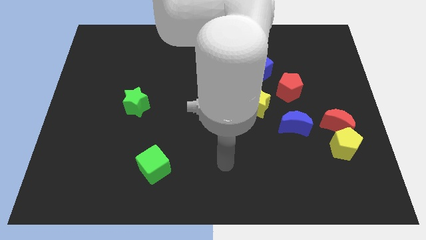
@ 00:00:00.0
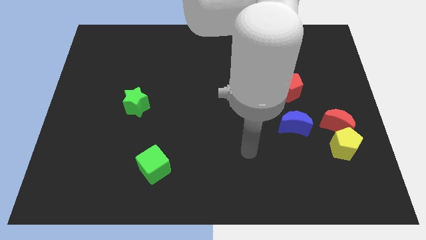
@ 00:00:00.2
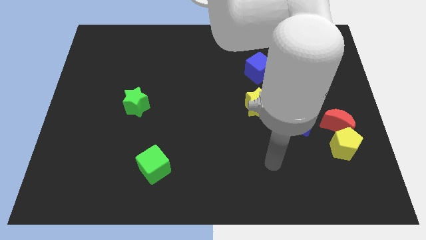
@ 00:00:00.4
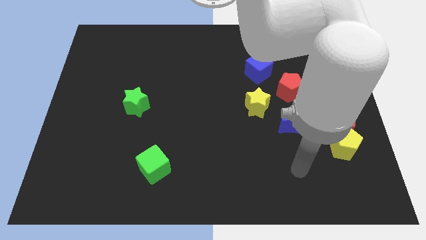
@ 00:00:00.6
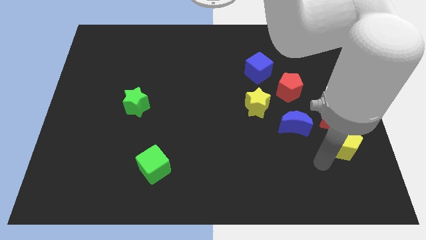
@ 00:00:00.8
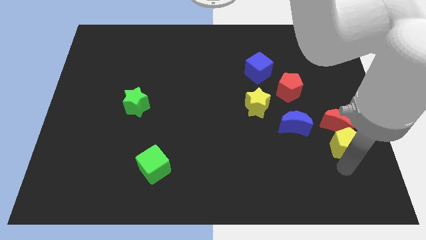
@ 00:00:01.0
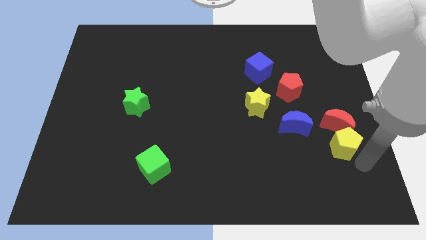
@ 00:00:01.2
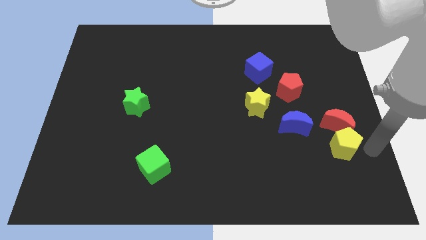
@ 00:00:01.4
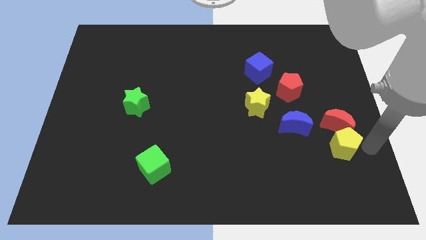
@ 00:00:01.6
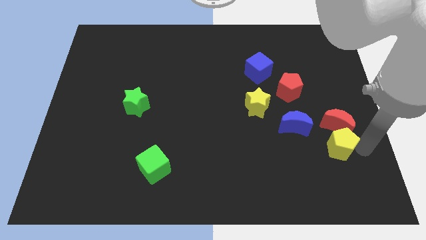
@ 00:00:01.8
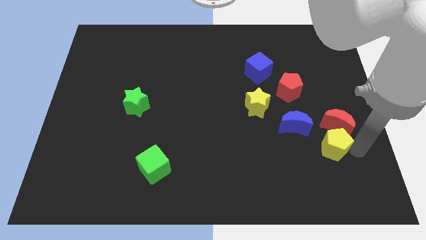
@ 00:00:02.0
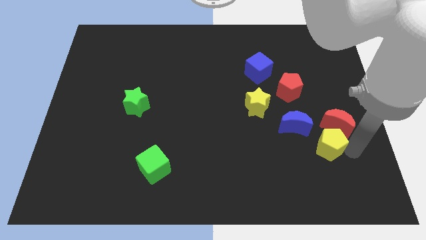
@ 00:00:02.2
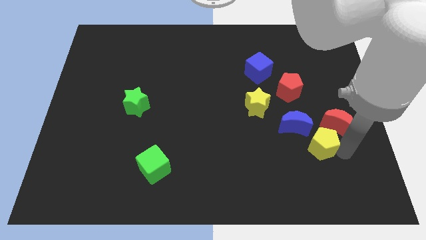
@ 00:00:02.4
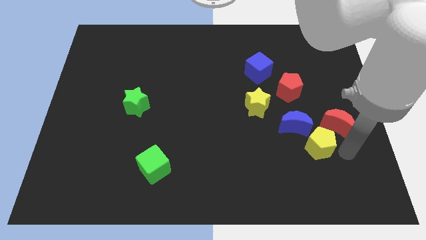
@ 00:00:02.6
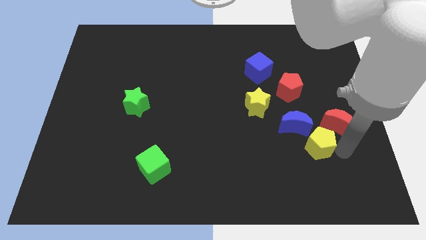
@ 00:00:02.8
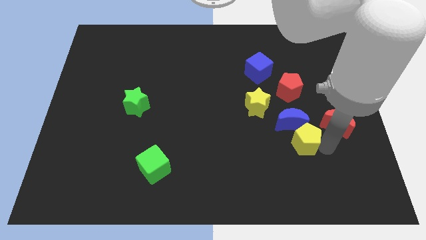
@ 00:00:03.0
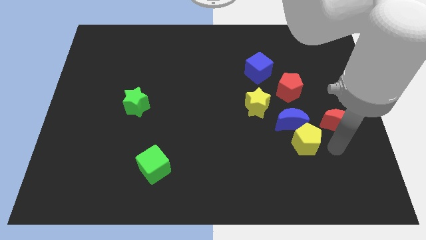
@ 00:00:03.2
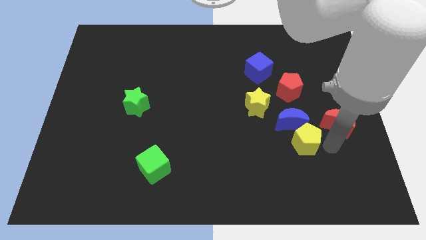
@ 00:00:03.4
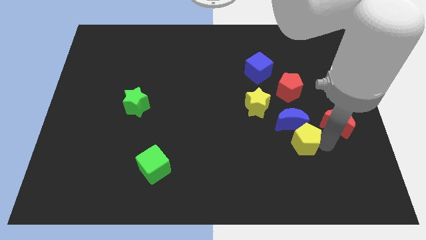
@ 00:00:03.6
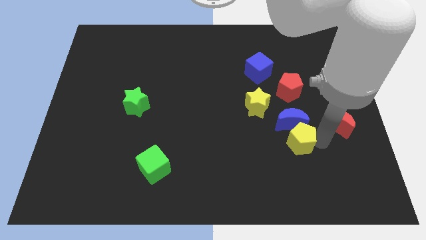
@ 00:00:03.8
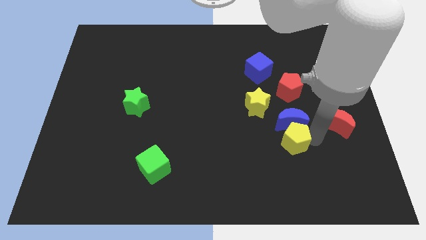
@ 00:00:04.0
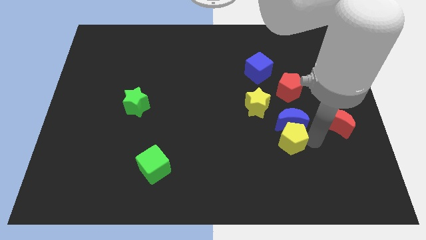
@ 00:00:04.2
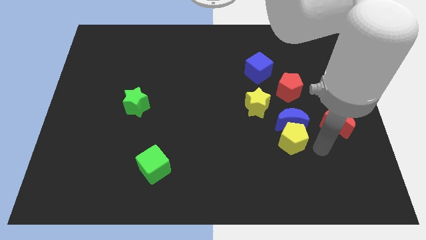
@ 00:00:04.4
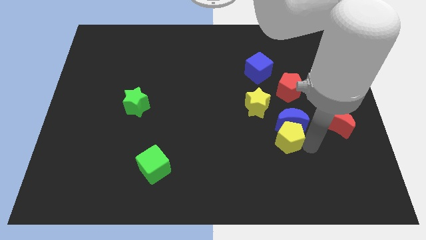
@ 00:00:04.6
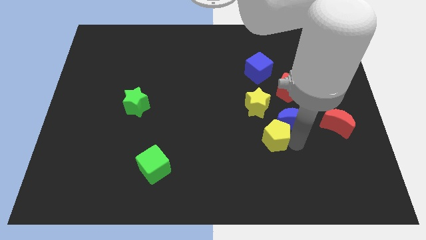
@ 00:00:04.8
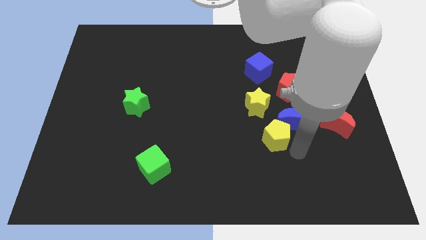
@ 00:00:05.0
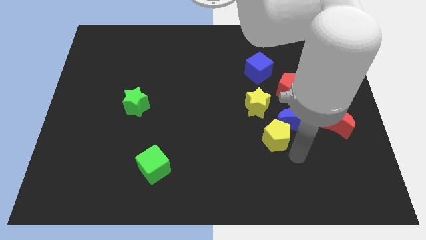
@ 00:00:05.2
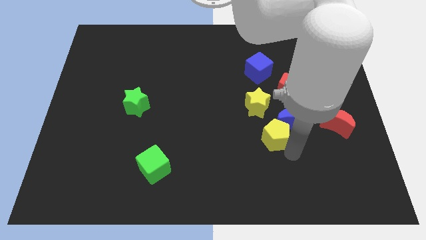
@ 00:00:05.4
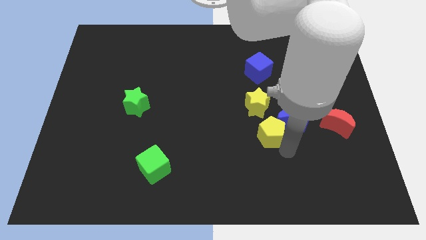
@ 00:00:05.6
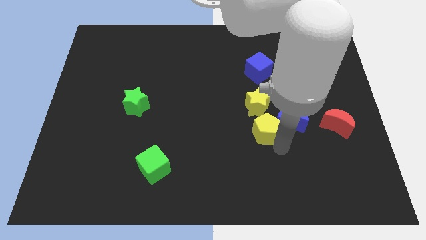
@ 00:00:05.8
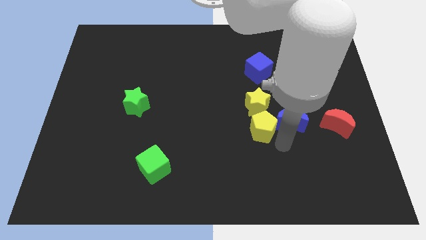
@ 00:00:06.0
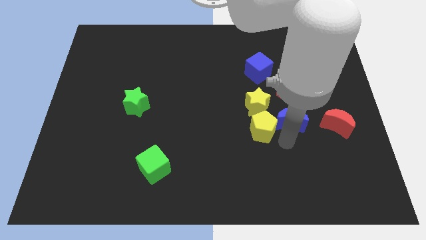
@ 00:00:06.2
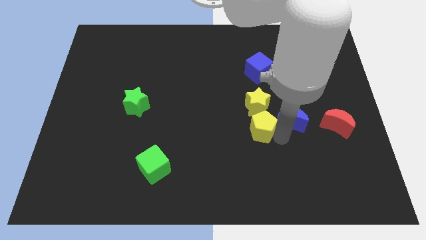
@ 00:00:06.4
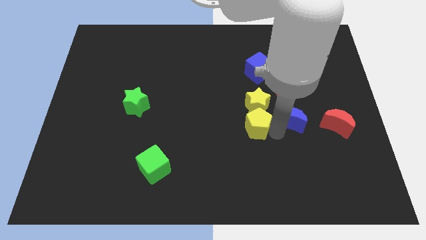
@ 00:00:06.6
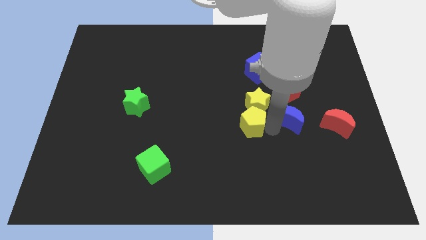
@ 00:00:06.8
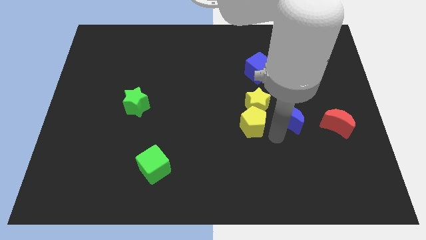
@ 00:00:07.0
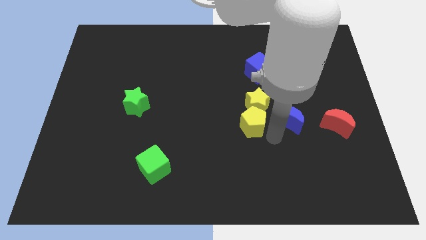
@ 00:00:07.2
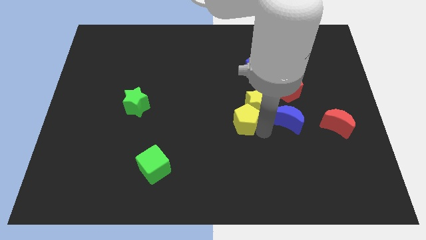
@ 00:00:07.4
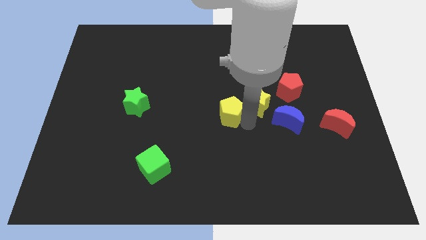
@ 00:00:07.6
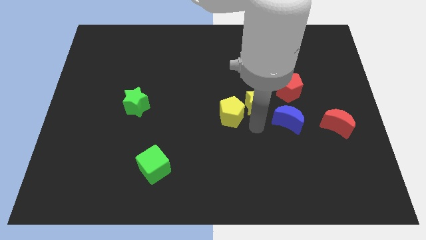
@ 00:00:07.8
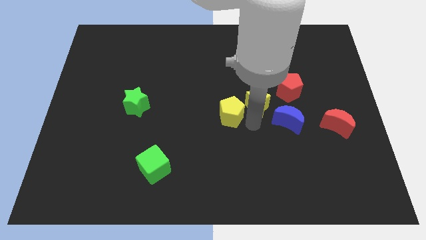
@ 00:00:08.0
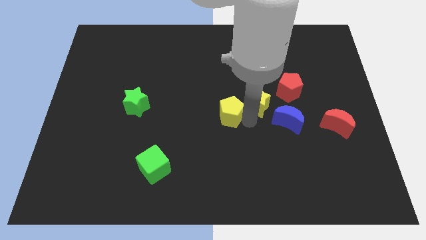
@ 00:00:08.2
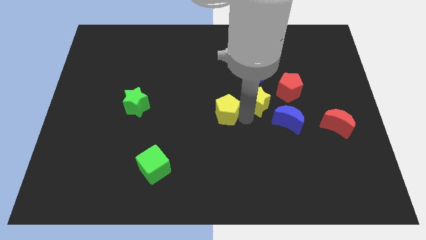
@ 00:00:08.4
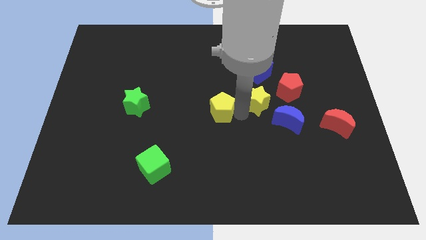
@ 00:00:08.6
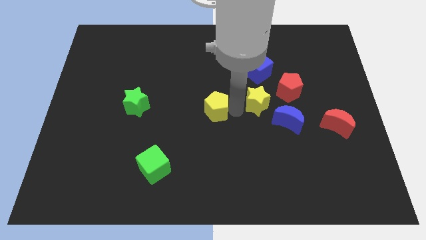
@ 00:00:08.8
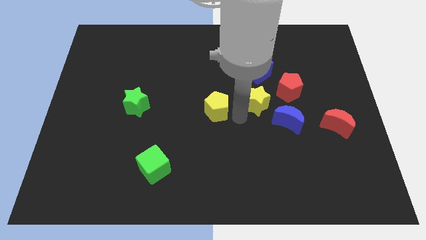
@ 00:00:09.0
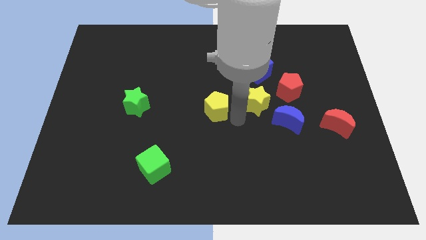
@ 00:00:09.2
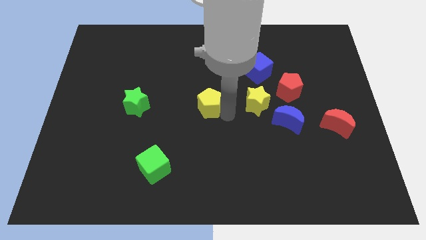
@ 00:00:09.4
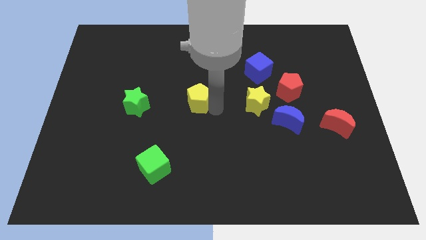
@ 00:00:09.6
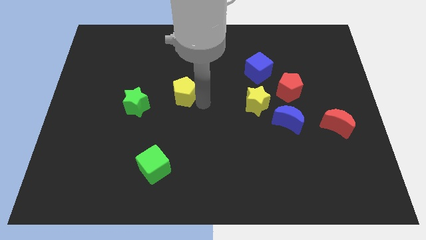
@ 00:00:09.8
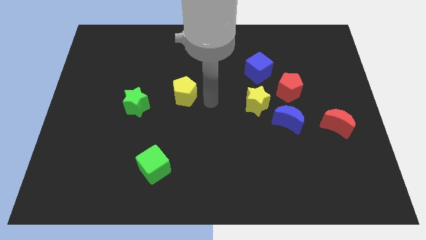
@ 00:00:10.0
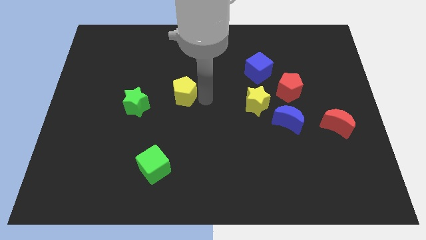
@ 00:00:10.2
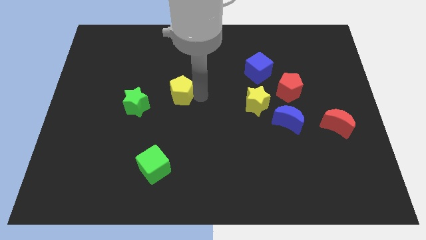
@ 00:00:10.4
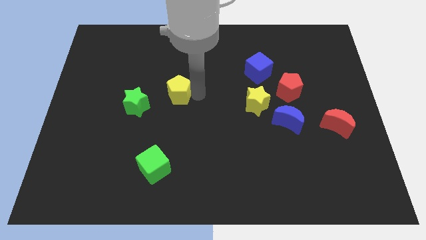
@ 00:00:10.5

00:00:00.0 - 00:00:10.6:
slide the yellow pentagon to the top right of the green star

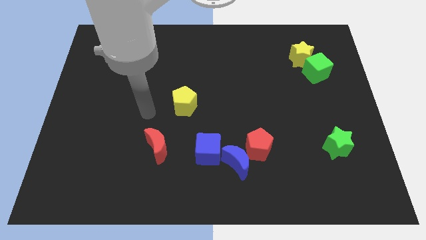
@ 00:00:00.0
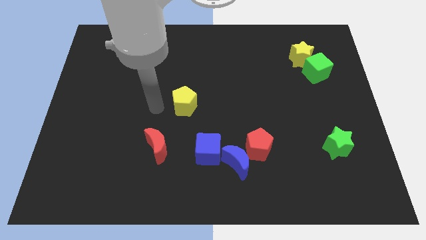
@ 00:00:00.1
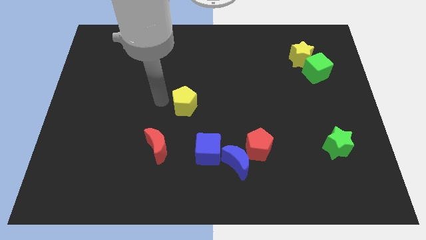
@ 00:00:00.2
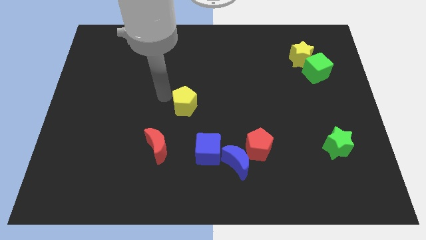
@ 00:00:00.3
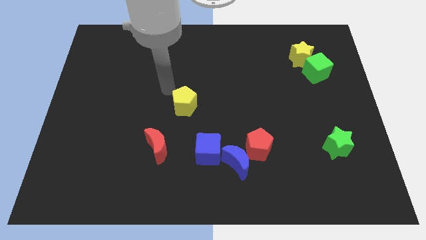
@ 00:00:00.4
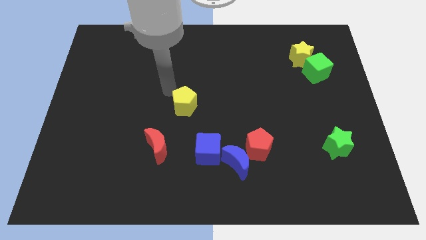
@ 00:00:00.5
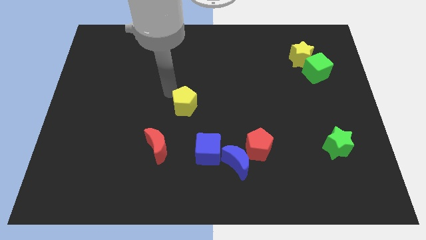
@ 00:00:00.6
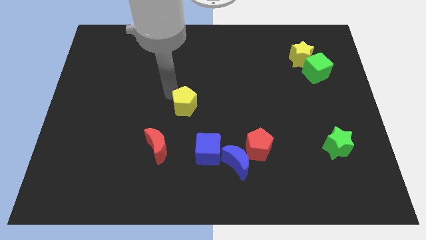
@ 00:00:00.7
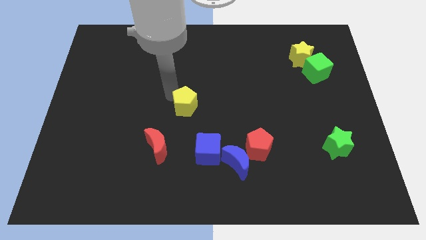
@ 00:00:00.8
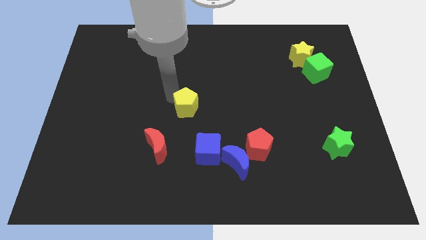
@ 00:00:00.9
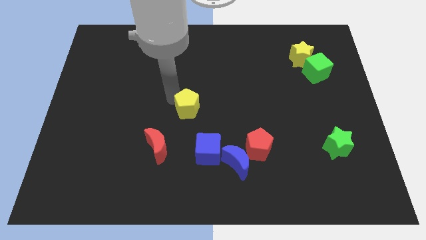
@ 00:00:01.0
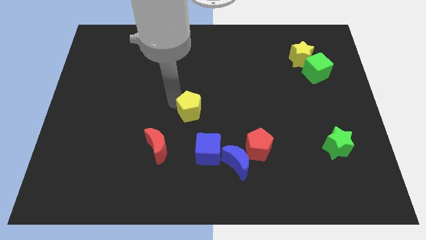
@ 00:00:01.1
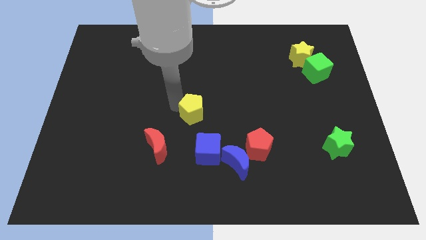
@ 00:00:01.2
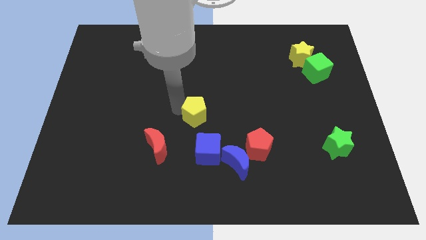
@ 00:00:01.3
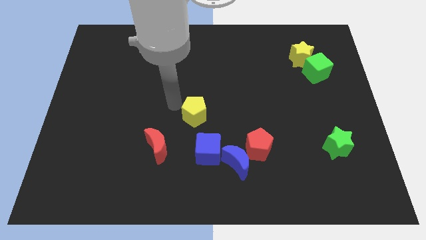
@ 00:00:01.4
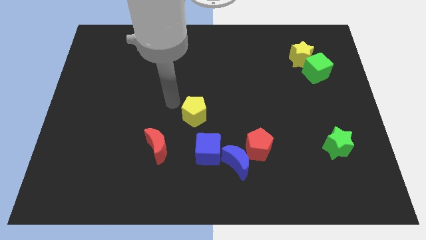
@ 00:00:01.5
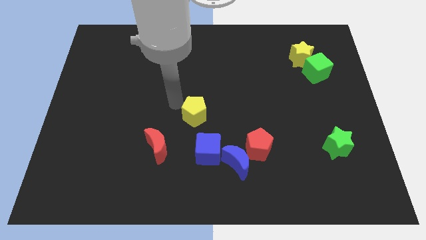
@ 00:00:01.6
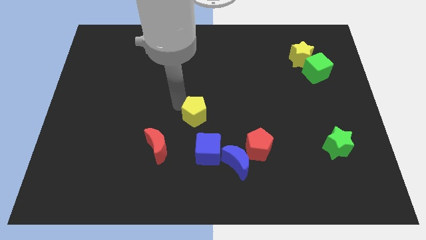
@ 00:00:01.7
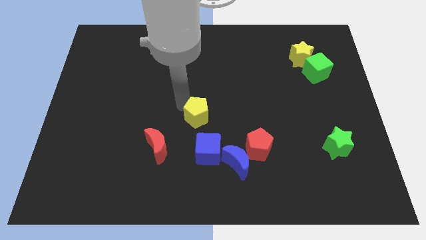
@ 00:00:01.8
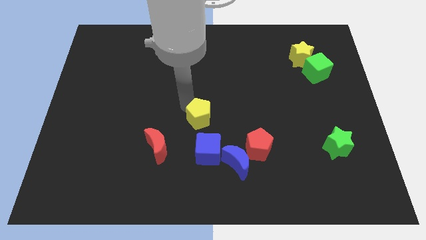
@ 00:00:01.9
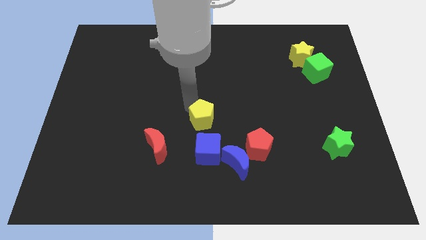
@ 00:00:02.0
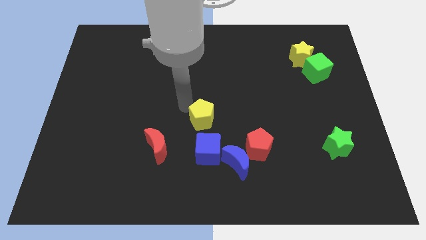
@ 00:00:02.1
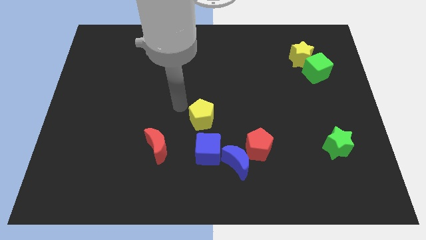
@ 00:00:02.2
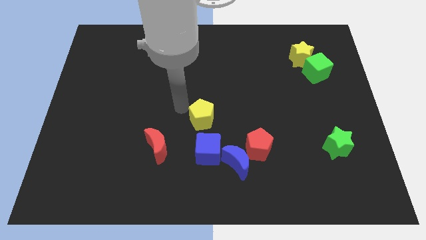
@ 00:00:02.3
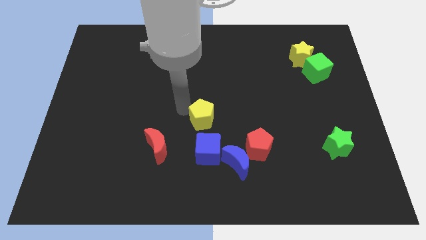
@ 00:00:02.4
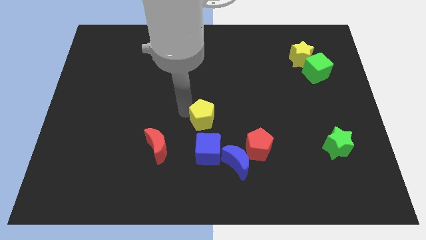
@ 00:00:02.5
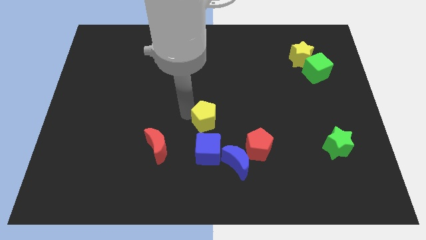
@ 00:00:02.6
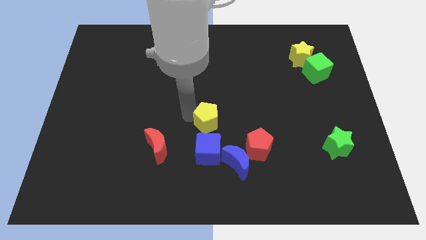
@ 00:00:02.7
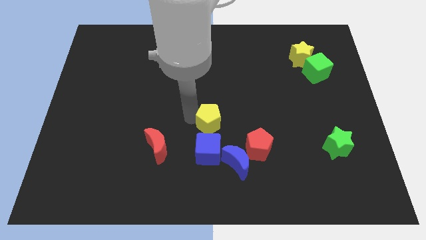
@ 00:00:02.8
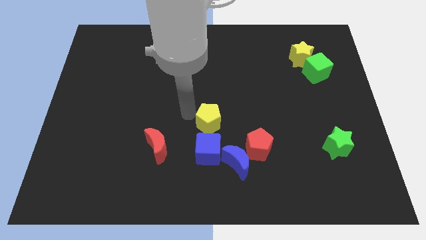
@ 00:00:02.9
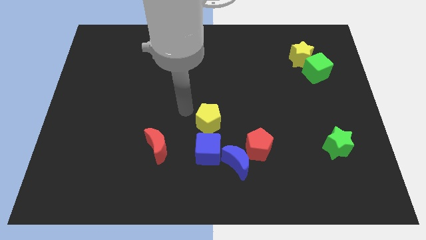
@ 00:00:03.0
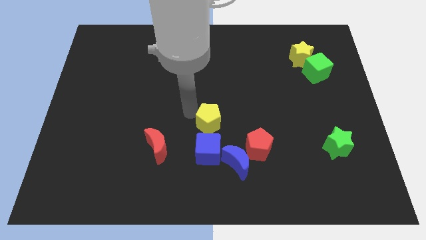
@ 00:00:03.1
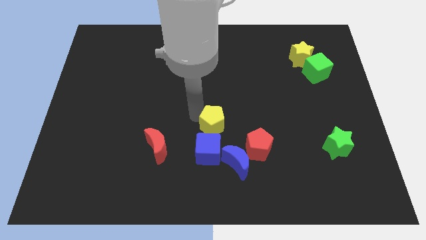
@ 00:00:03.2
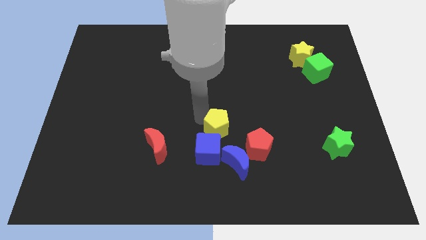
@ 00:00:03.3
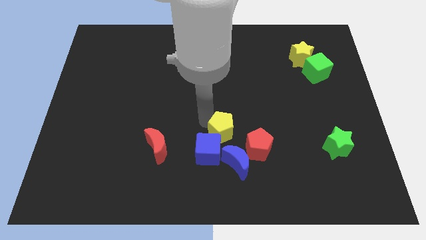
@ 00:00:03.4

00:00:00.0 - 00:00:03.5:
put the yellow pentagon to the right of the red moon
